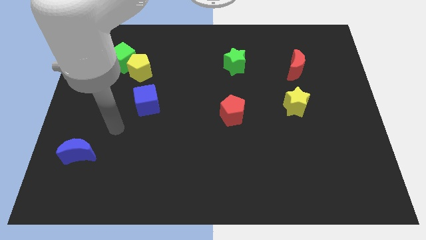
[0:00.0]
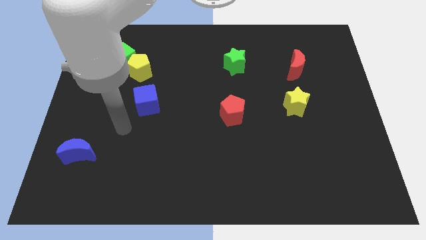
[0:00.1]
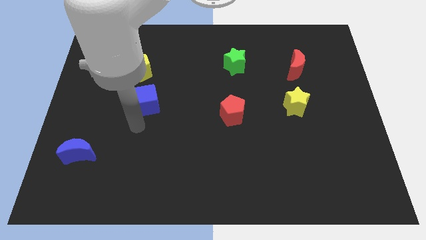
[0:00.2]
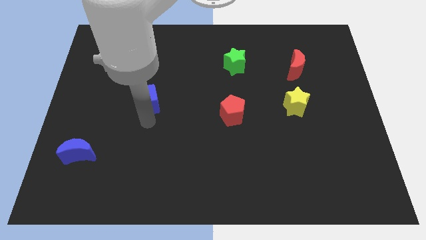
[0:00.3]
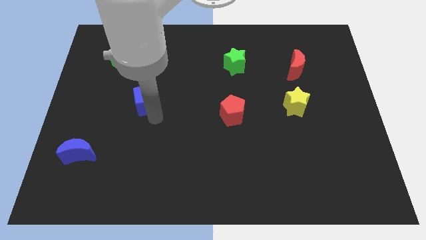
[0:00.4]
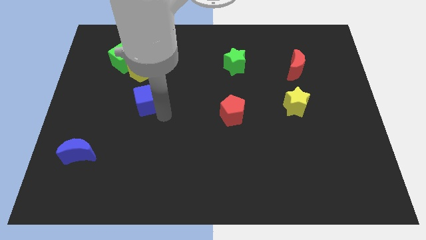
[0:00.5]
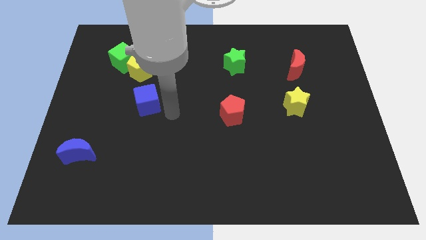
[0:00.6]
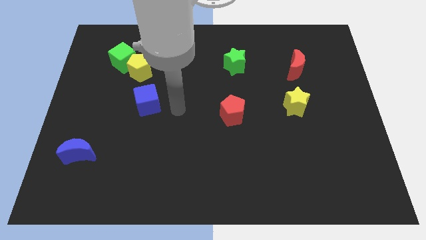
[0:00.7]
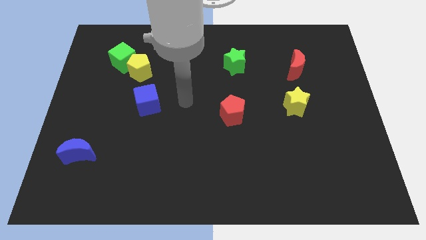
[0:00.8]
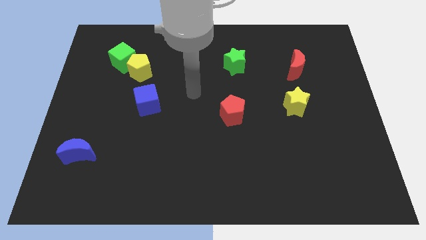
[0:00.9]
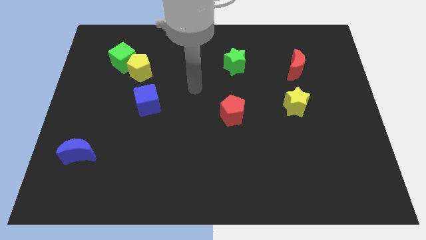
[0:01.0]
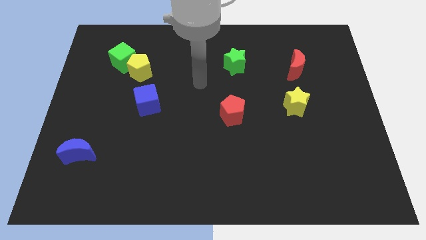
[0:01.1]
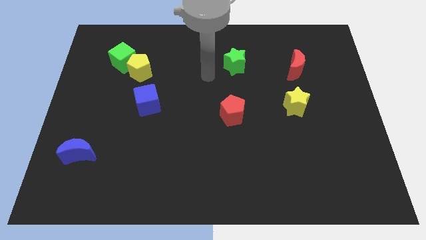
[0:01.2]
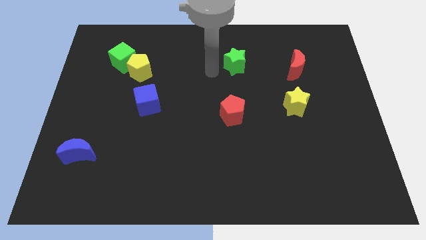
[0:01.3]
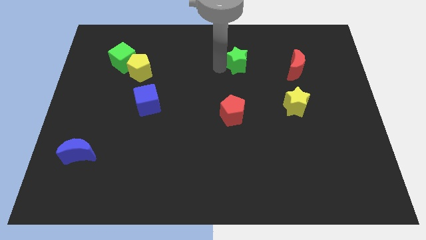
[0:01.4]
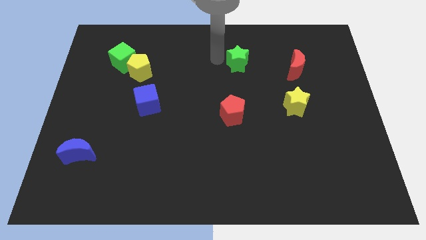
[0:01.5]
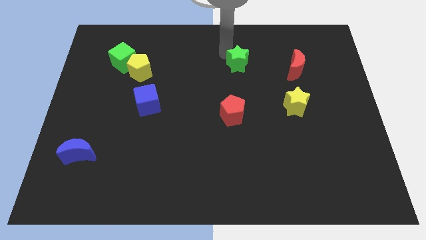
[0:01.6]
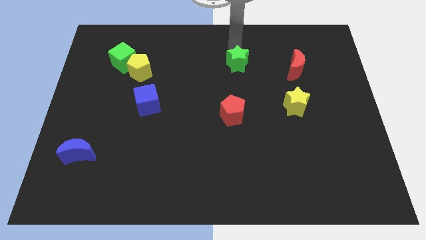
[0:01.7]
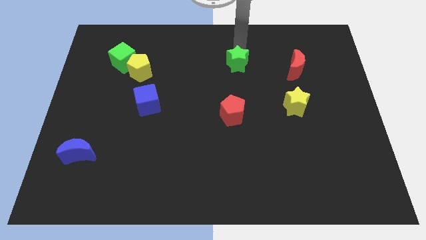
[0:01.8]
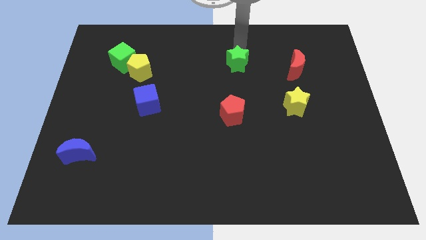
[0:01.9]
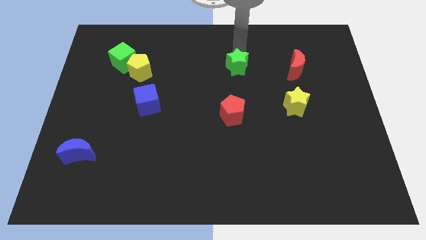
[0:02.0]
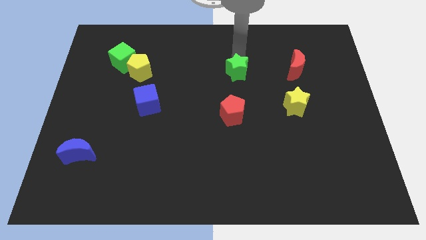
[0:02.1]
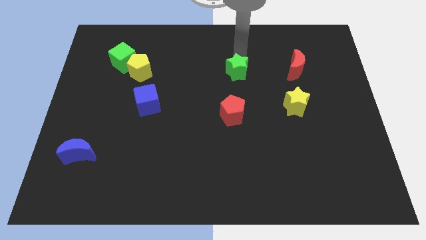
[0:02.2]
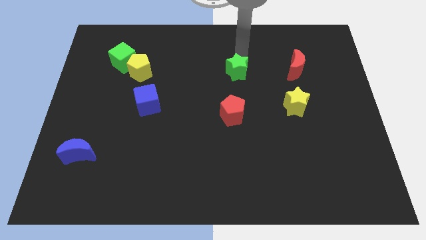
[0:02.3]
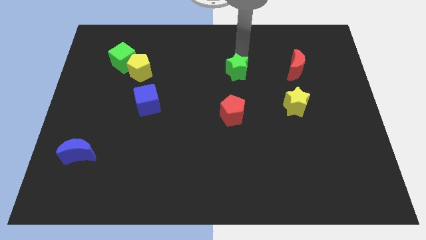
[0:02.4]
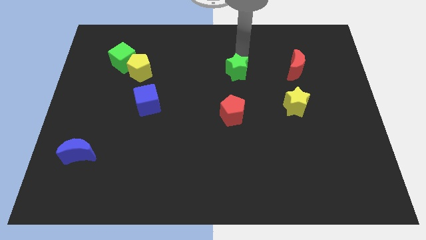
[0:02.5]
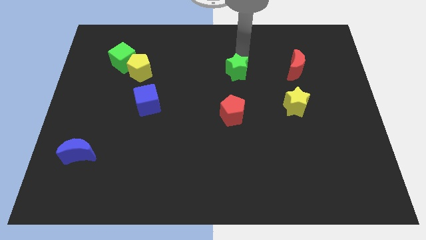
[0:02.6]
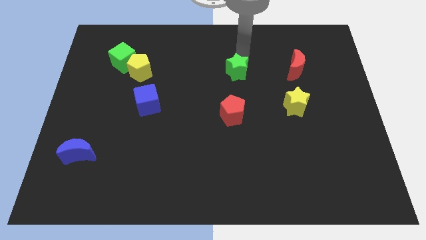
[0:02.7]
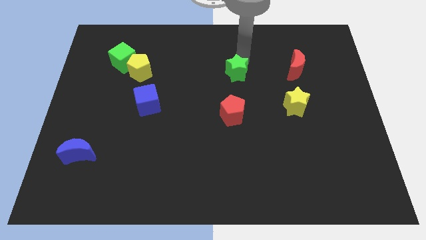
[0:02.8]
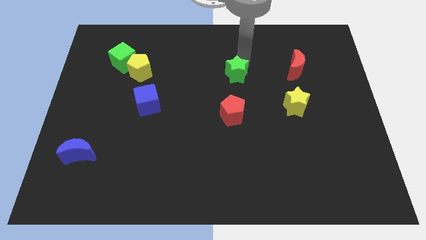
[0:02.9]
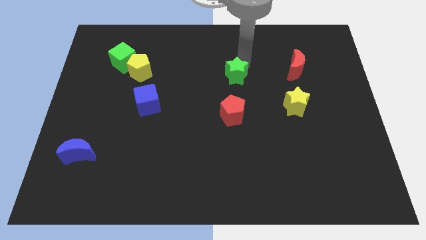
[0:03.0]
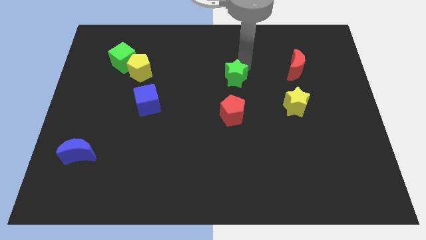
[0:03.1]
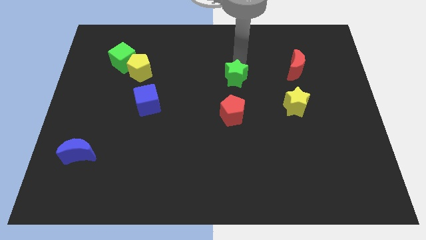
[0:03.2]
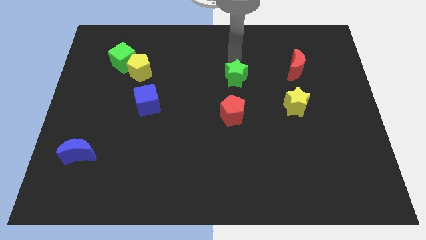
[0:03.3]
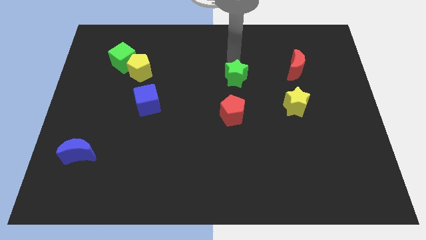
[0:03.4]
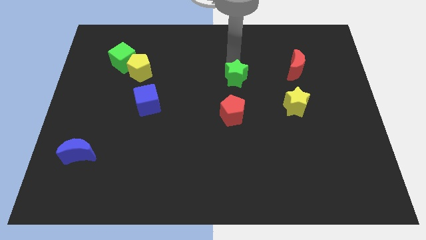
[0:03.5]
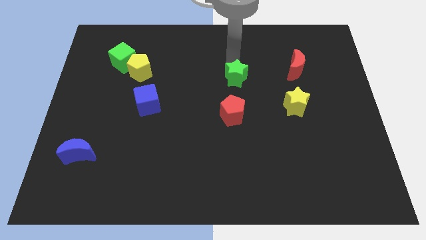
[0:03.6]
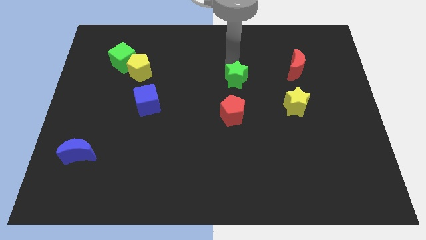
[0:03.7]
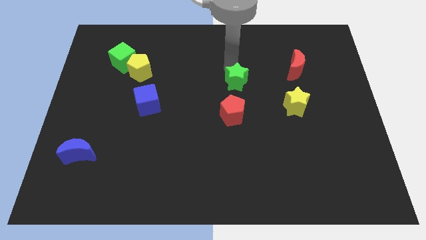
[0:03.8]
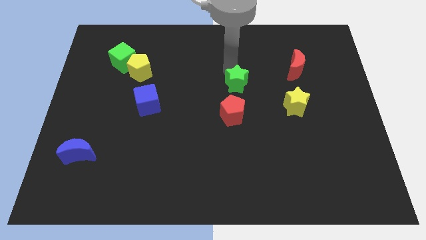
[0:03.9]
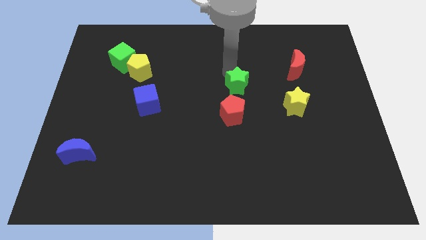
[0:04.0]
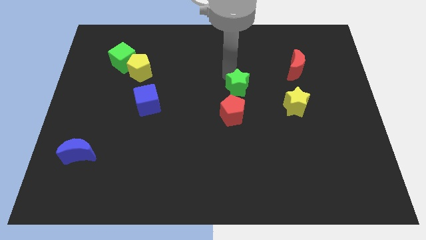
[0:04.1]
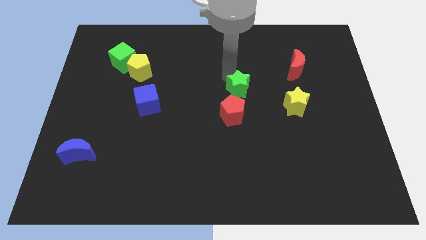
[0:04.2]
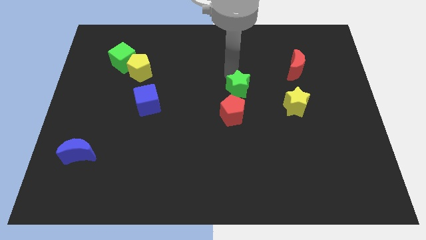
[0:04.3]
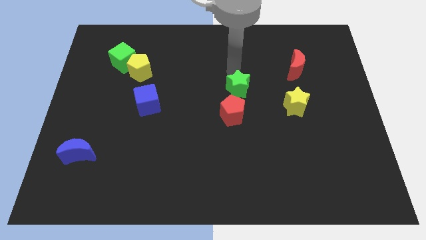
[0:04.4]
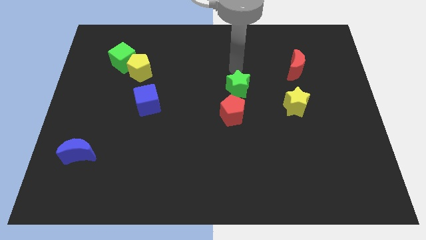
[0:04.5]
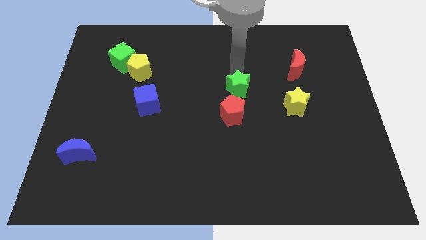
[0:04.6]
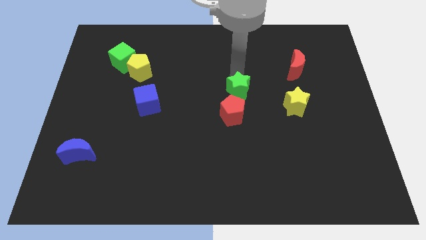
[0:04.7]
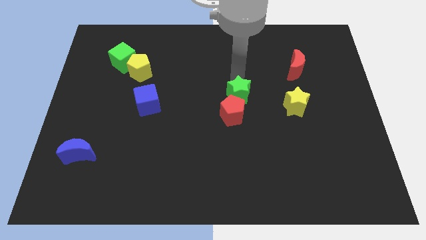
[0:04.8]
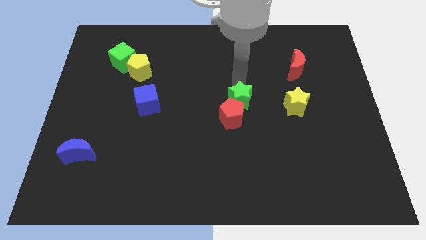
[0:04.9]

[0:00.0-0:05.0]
put the green star towards the red pentagon

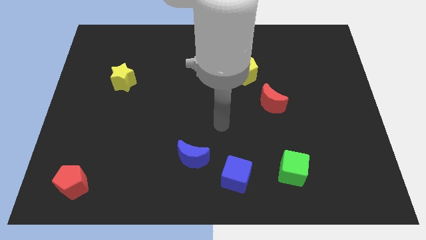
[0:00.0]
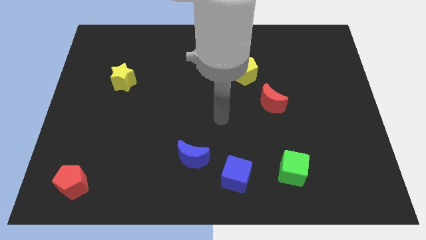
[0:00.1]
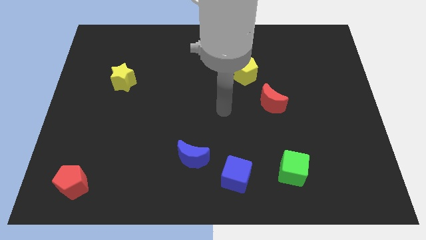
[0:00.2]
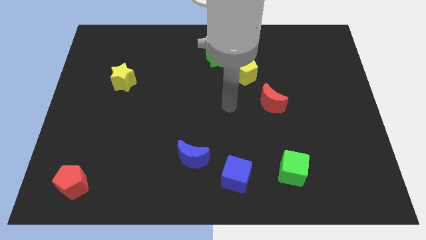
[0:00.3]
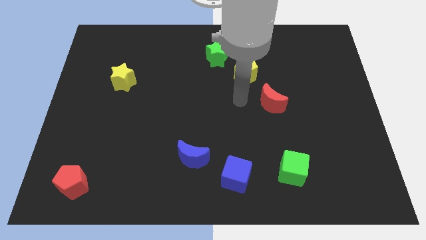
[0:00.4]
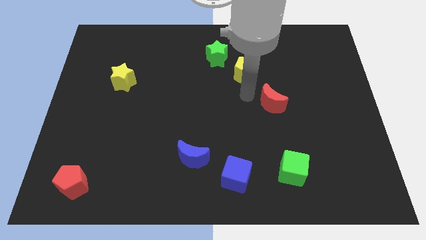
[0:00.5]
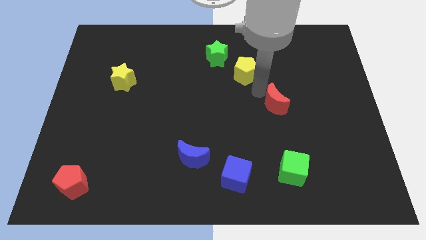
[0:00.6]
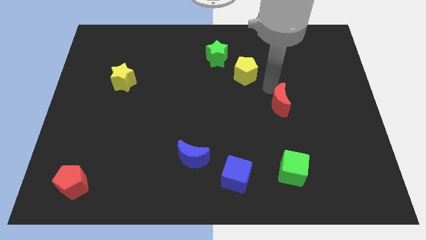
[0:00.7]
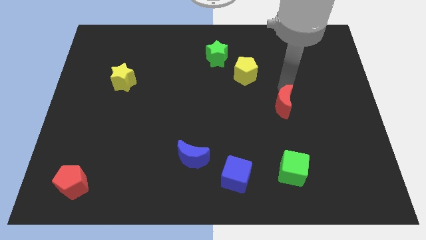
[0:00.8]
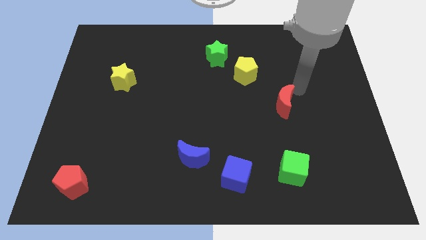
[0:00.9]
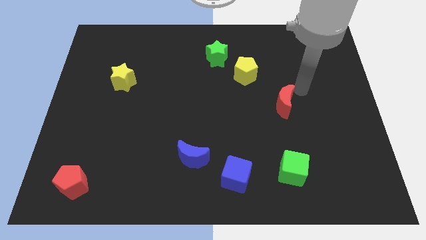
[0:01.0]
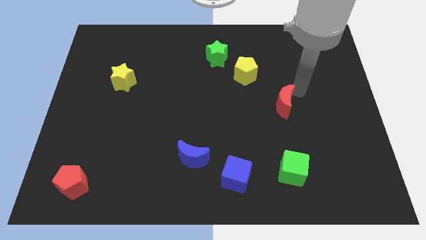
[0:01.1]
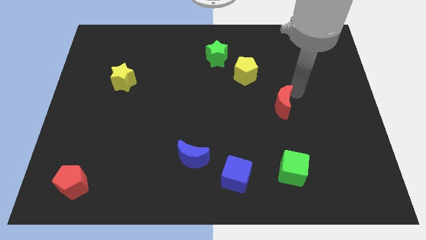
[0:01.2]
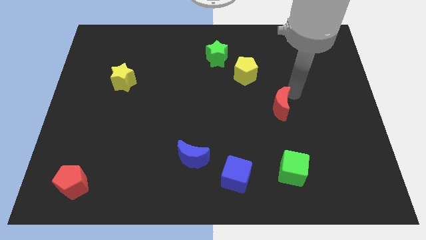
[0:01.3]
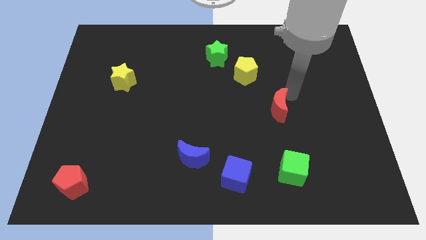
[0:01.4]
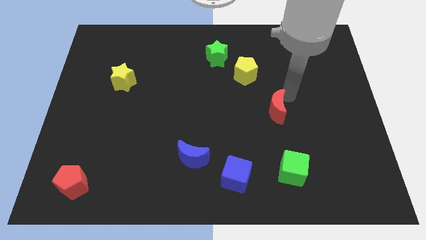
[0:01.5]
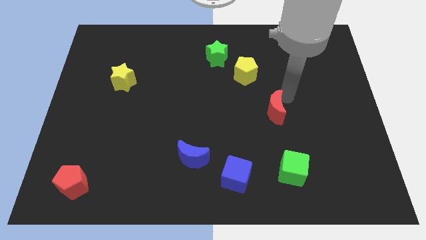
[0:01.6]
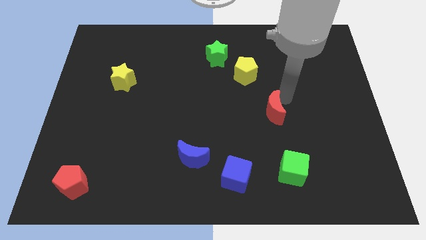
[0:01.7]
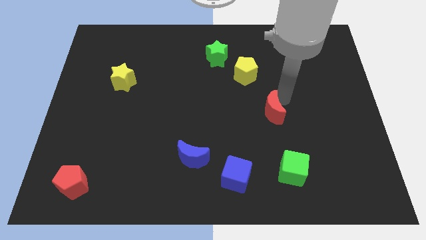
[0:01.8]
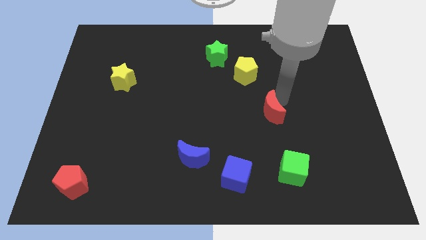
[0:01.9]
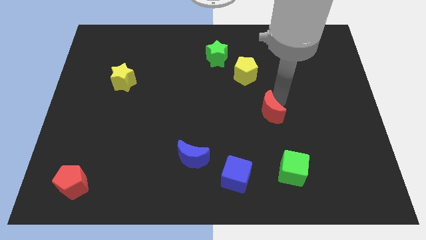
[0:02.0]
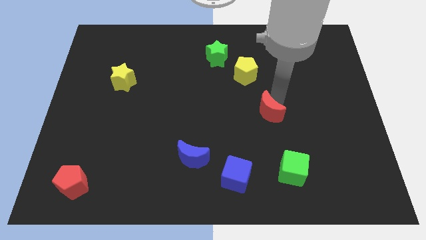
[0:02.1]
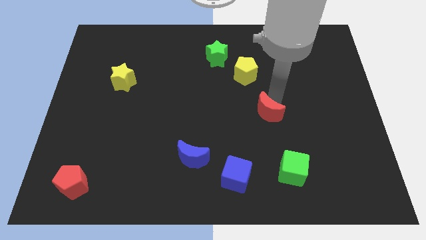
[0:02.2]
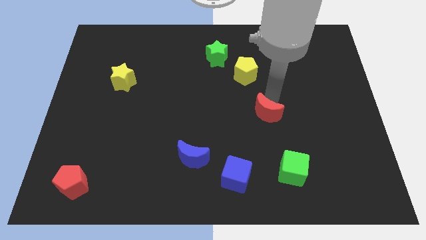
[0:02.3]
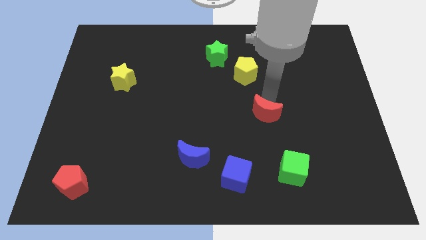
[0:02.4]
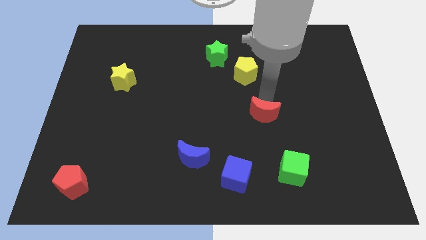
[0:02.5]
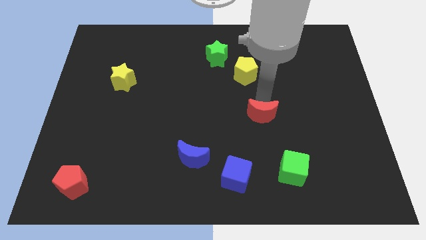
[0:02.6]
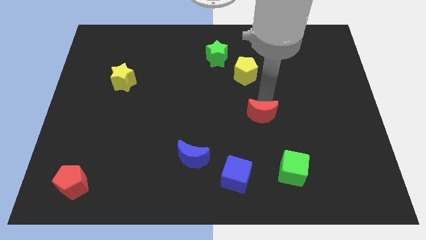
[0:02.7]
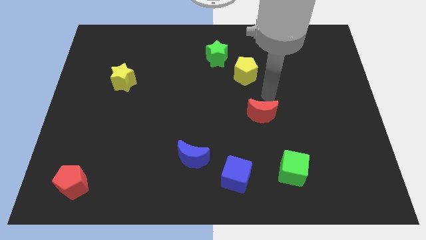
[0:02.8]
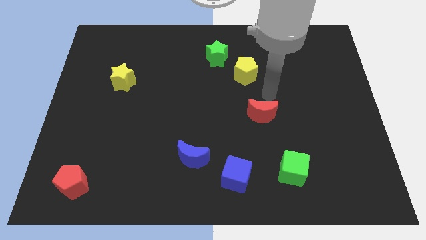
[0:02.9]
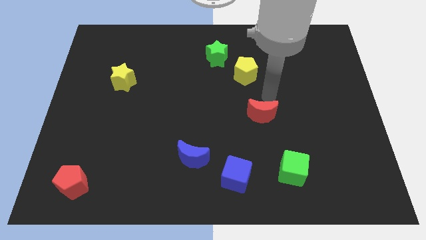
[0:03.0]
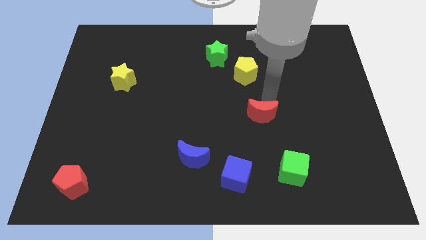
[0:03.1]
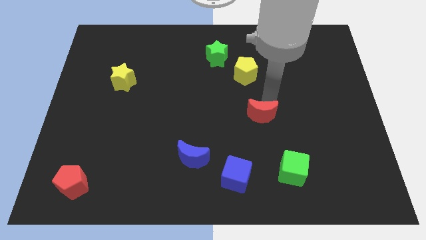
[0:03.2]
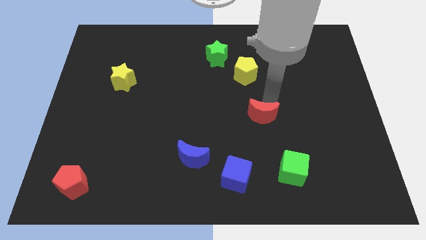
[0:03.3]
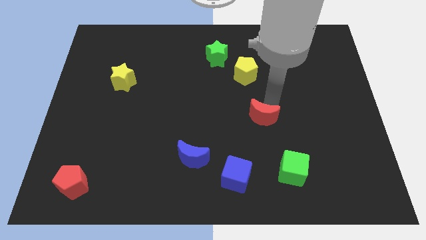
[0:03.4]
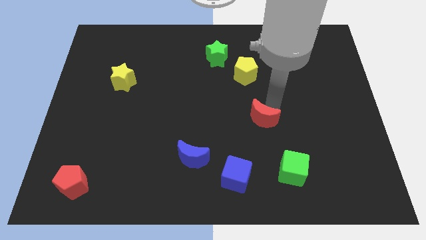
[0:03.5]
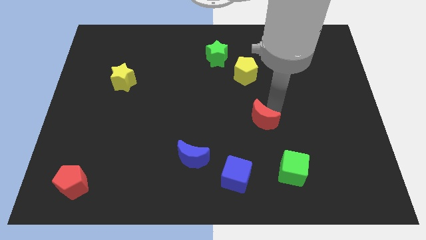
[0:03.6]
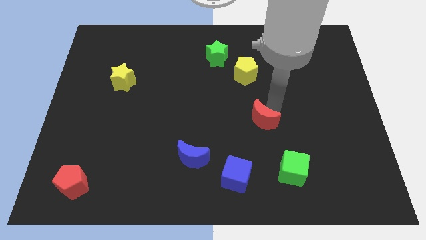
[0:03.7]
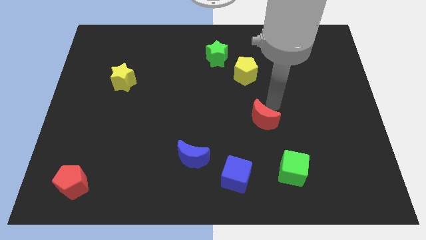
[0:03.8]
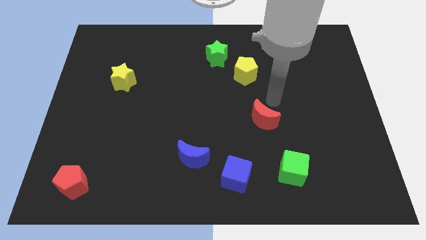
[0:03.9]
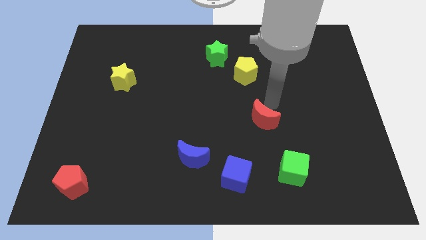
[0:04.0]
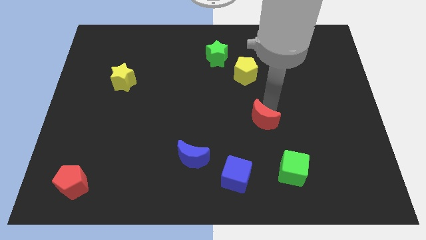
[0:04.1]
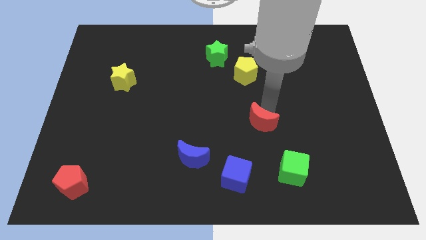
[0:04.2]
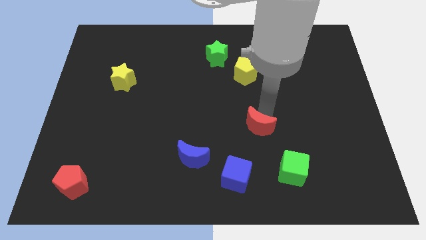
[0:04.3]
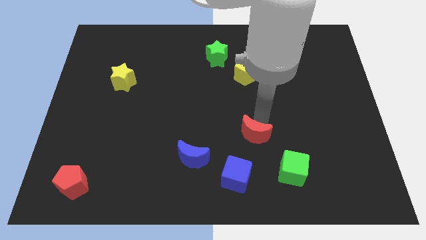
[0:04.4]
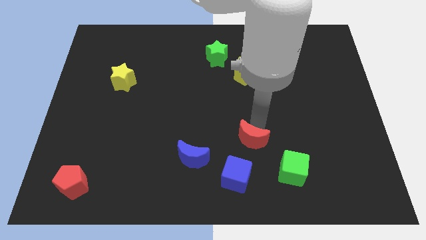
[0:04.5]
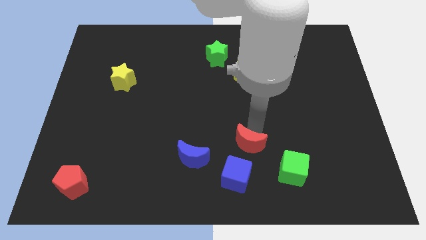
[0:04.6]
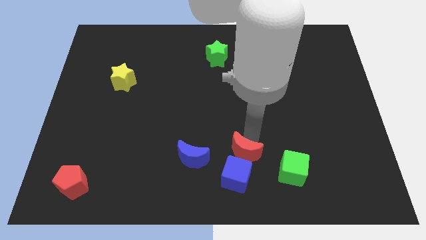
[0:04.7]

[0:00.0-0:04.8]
slide the red moon to the blue cube
